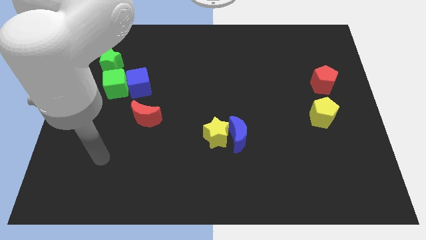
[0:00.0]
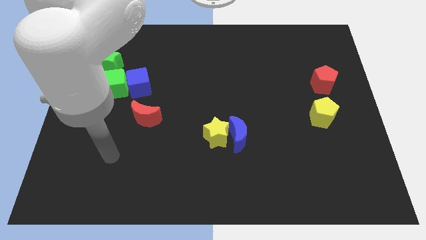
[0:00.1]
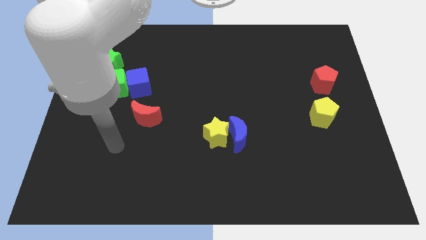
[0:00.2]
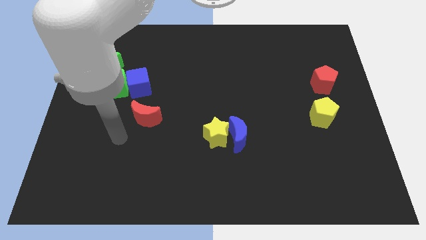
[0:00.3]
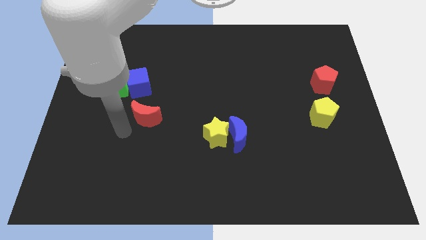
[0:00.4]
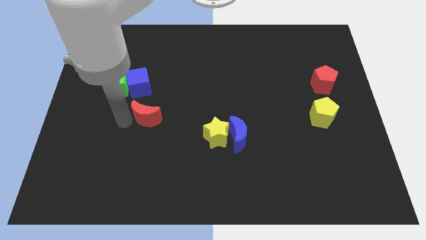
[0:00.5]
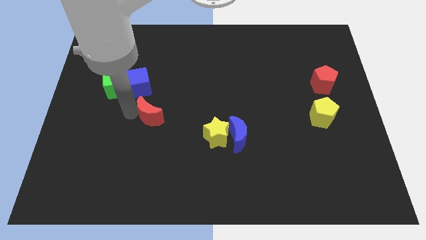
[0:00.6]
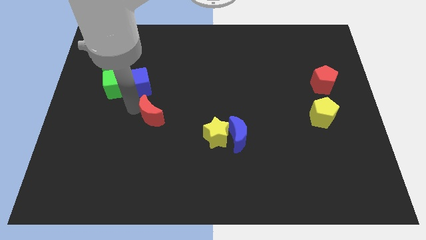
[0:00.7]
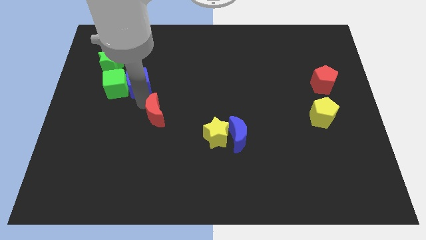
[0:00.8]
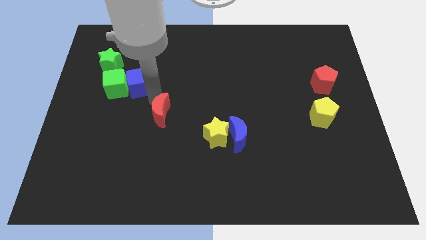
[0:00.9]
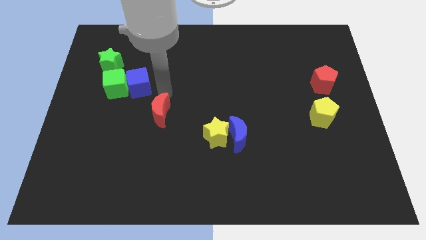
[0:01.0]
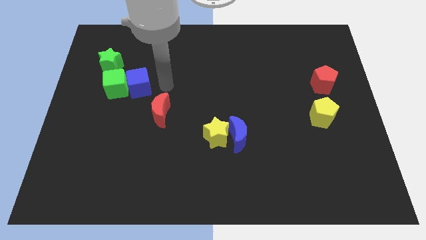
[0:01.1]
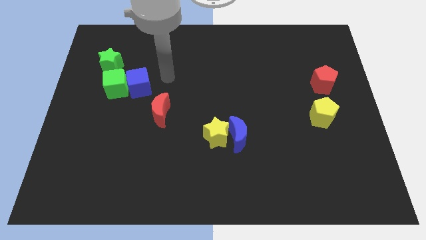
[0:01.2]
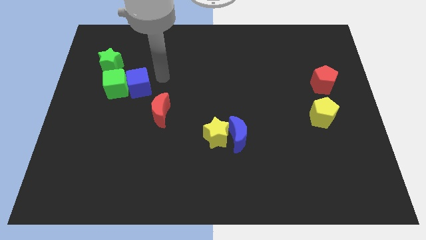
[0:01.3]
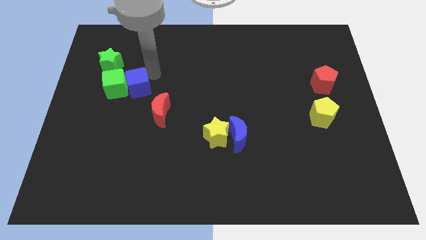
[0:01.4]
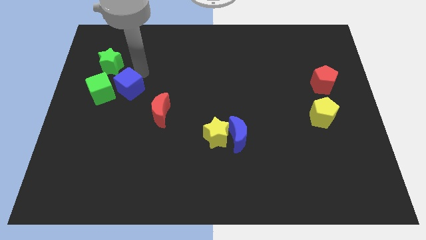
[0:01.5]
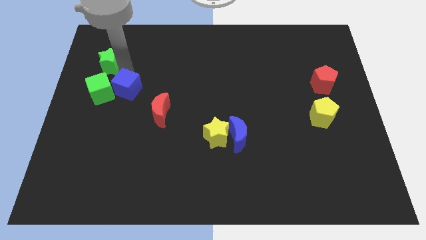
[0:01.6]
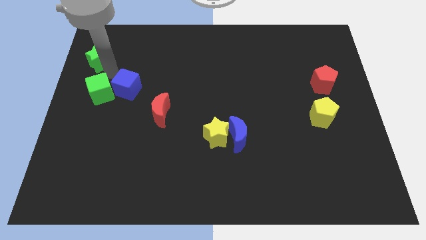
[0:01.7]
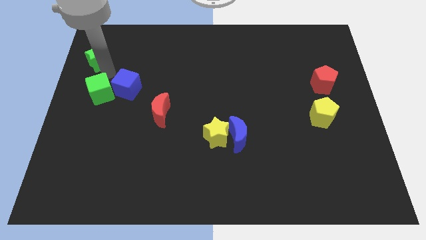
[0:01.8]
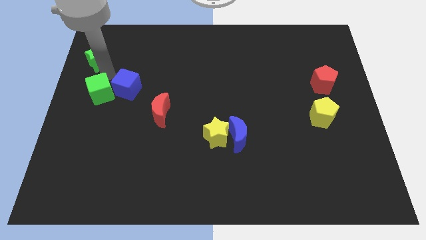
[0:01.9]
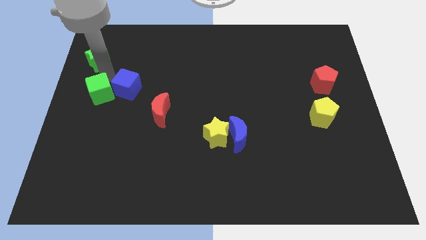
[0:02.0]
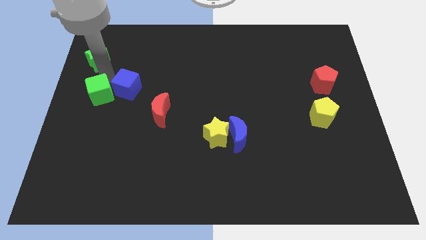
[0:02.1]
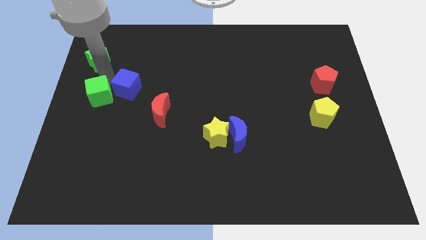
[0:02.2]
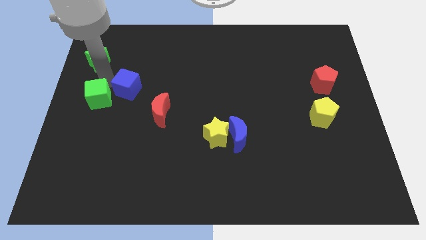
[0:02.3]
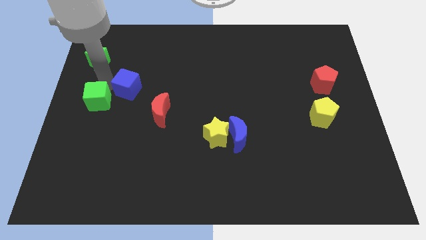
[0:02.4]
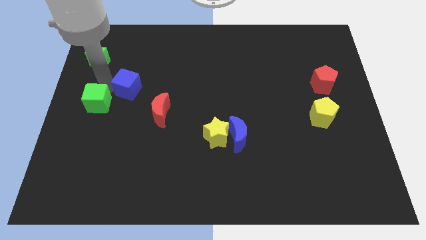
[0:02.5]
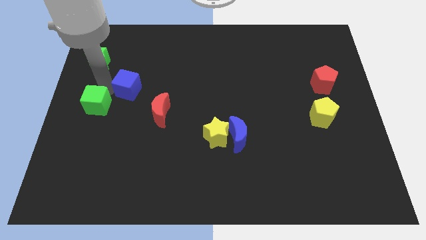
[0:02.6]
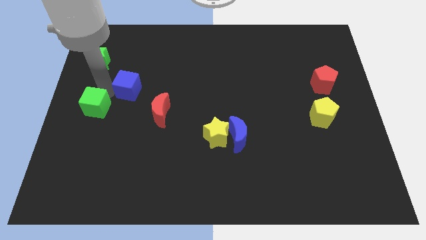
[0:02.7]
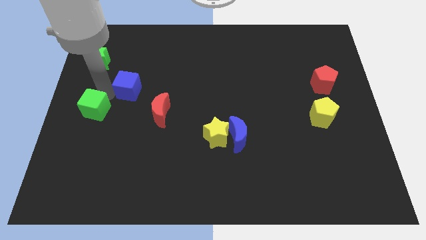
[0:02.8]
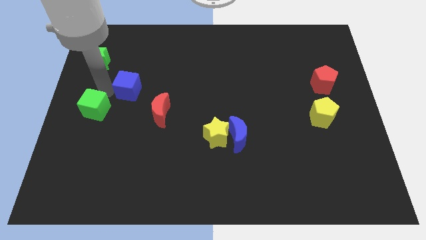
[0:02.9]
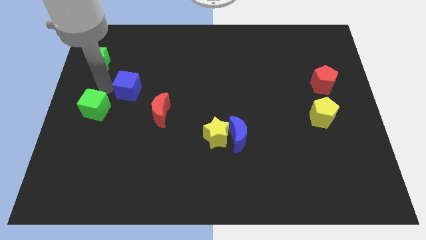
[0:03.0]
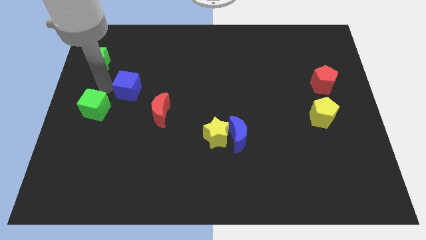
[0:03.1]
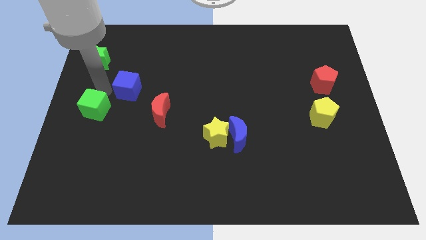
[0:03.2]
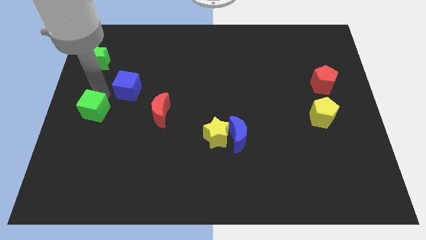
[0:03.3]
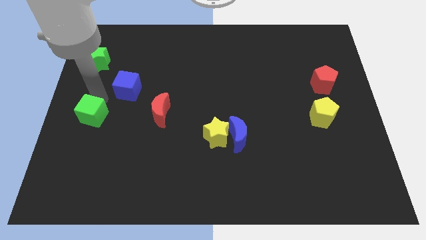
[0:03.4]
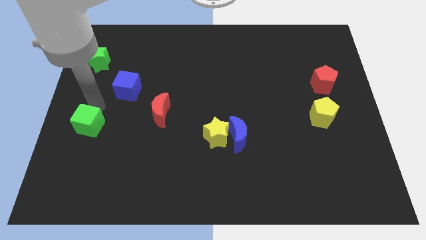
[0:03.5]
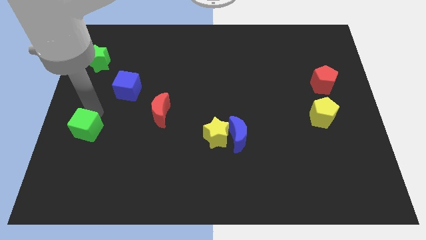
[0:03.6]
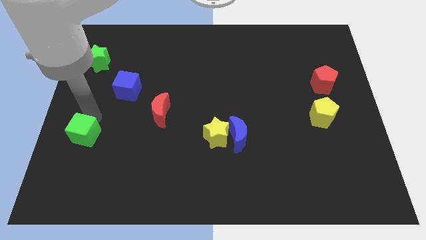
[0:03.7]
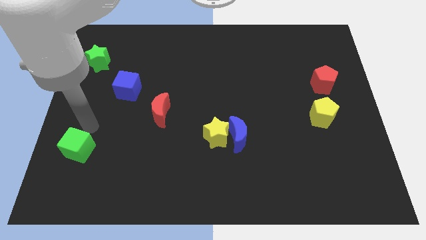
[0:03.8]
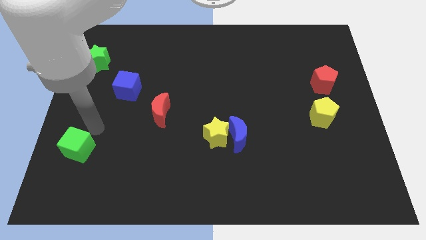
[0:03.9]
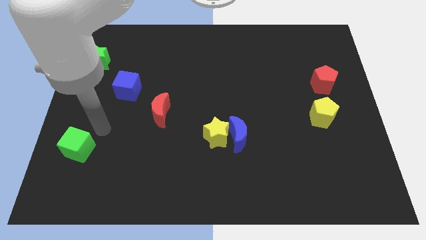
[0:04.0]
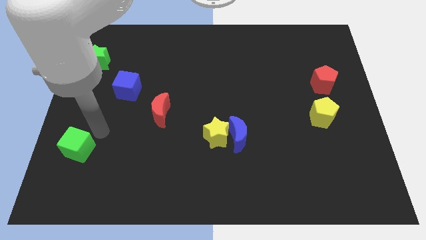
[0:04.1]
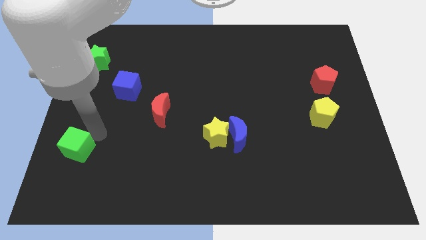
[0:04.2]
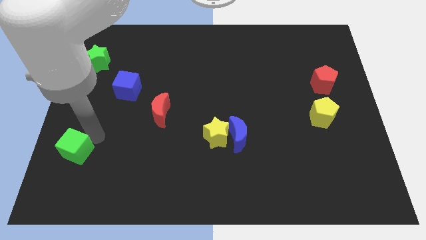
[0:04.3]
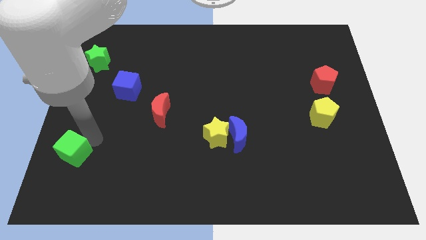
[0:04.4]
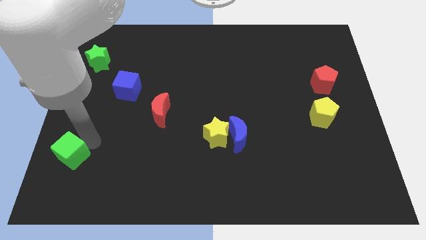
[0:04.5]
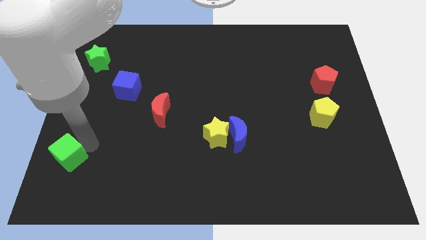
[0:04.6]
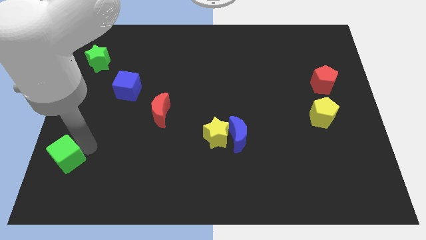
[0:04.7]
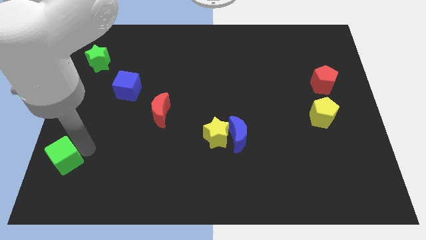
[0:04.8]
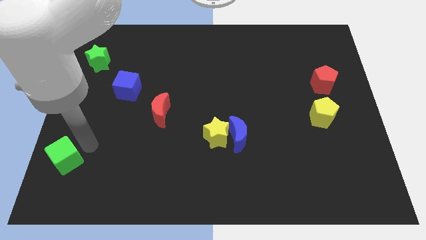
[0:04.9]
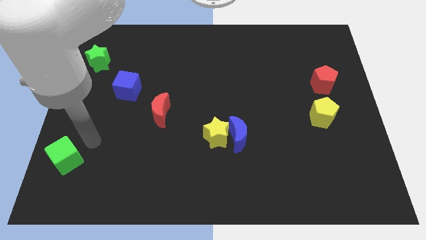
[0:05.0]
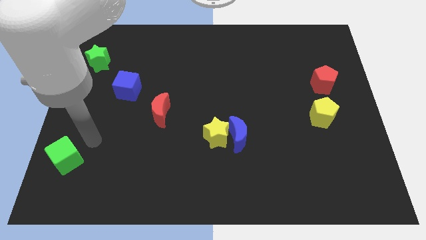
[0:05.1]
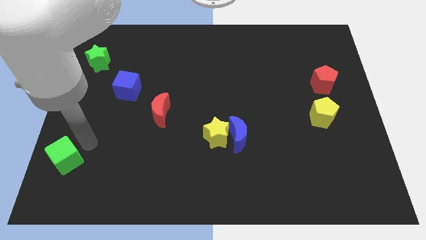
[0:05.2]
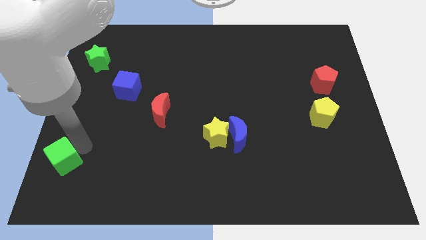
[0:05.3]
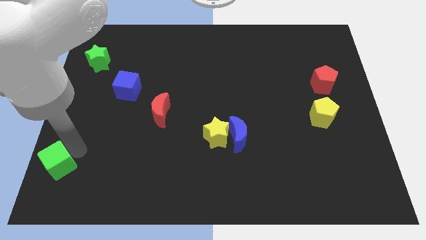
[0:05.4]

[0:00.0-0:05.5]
slide the green cube to the bottom left

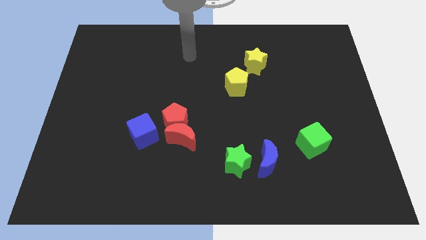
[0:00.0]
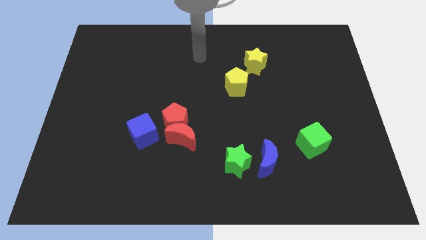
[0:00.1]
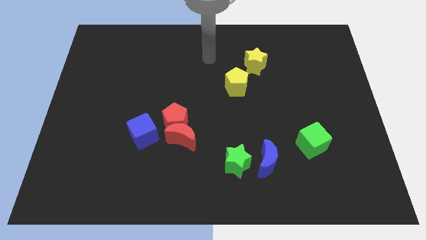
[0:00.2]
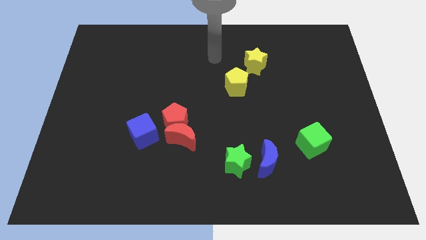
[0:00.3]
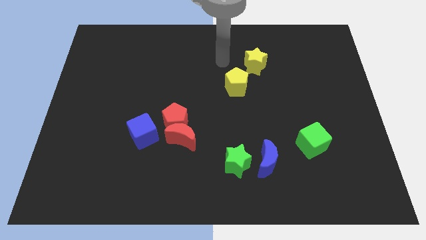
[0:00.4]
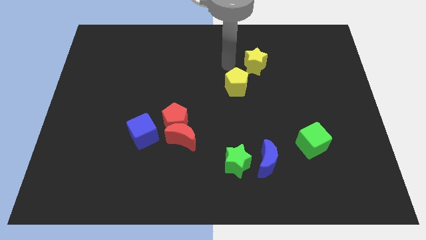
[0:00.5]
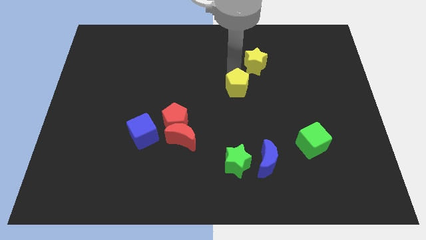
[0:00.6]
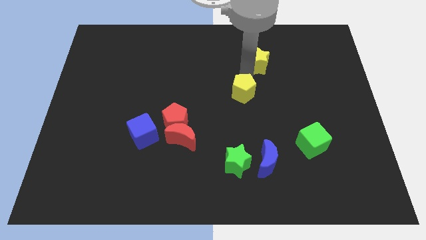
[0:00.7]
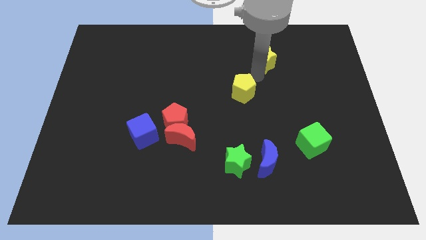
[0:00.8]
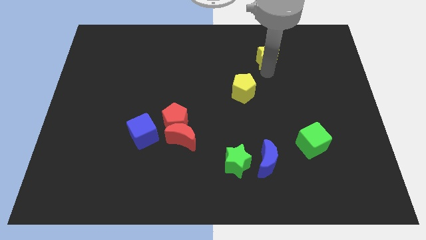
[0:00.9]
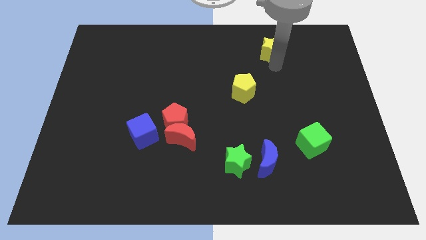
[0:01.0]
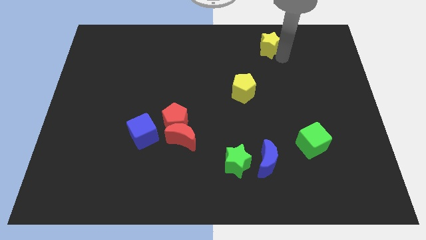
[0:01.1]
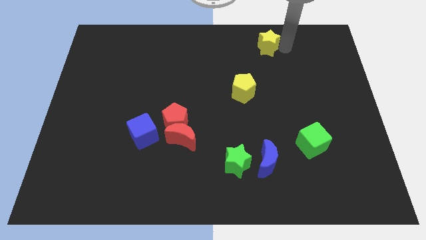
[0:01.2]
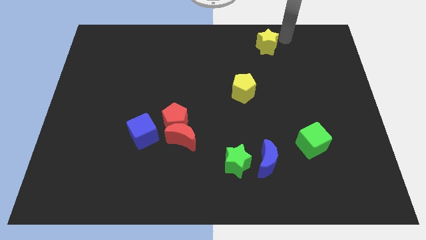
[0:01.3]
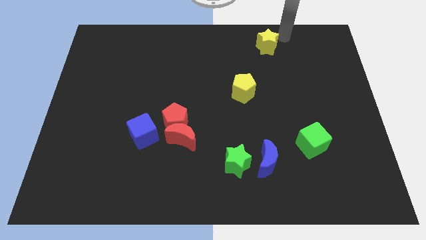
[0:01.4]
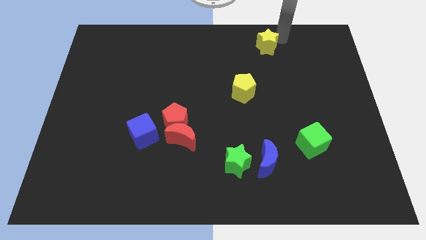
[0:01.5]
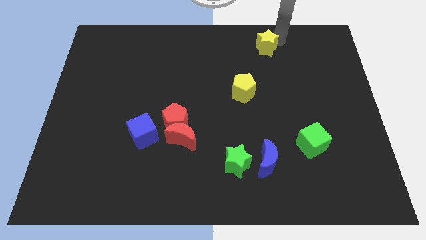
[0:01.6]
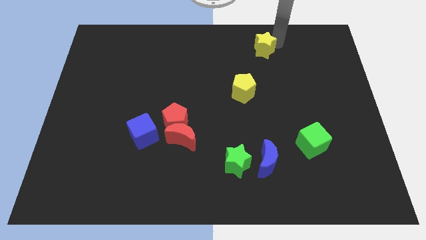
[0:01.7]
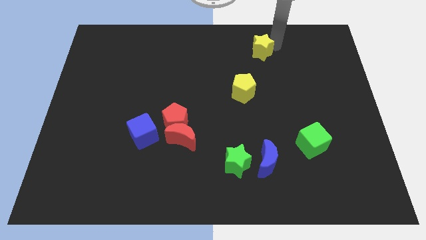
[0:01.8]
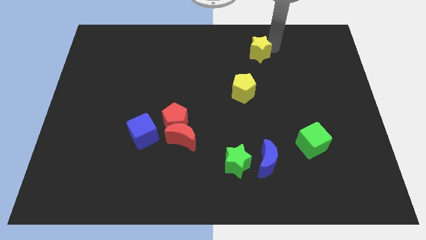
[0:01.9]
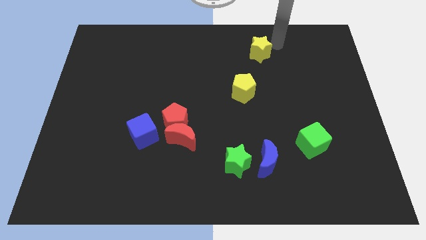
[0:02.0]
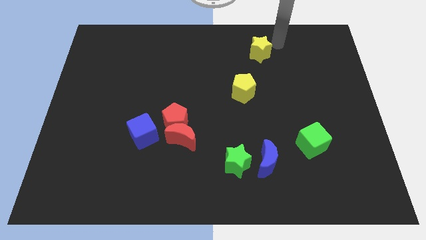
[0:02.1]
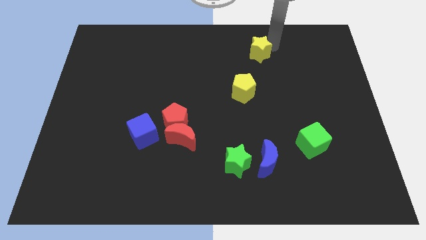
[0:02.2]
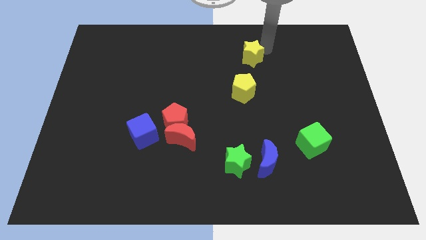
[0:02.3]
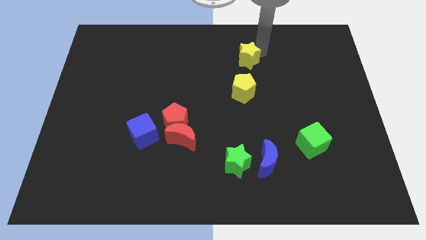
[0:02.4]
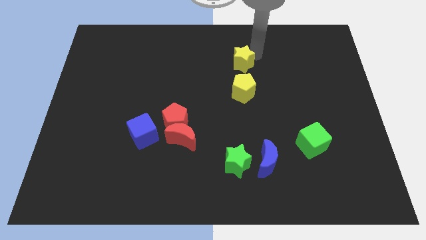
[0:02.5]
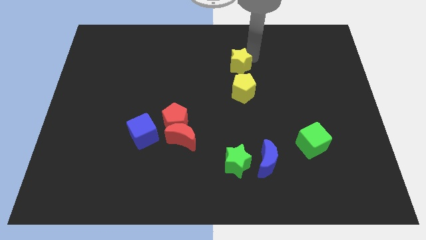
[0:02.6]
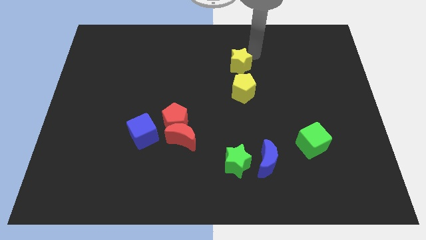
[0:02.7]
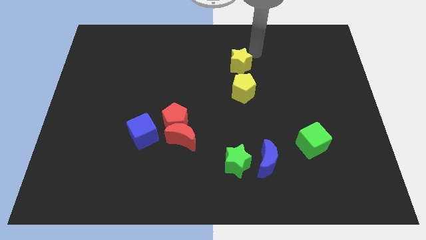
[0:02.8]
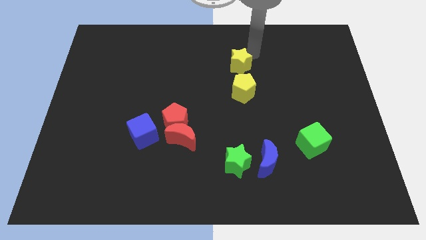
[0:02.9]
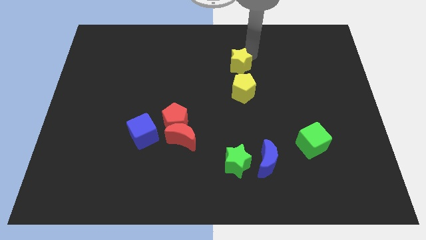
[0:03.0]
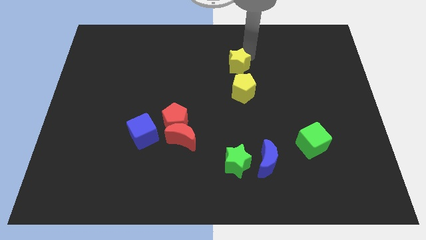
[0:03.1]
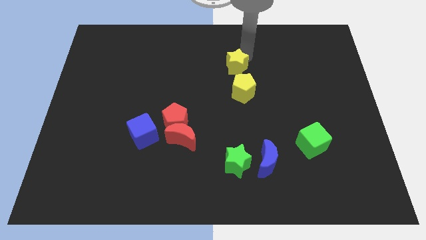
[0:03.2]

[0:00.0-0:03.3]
push the yellow star to the middle
